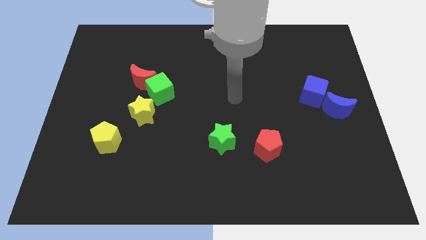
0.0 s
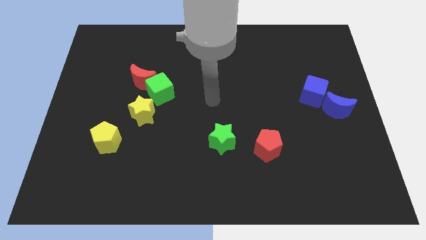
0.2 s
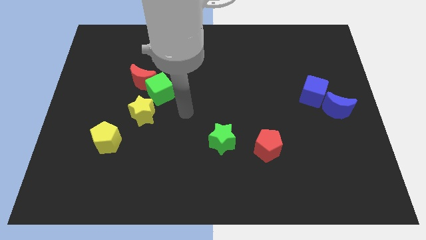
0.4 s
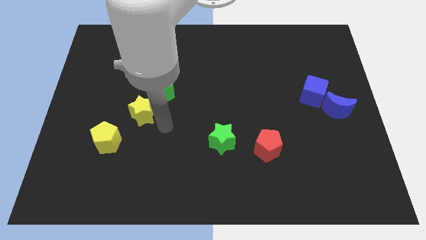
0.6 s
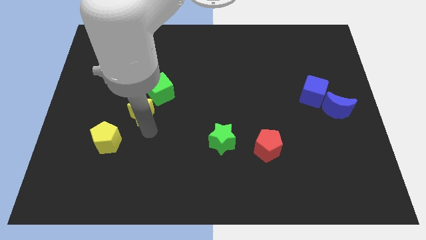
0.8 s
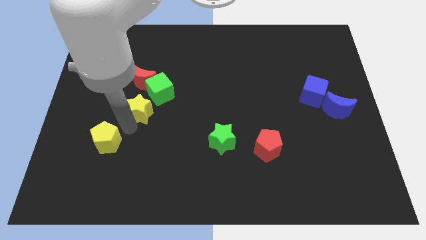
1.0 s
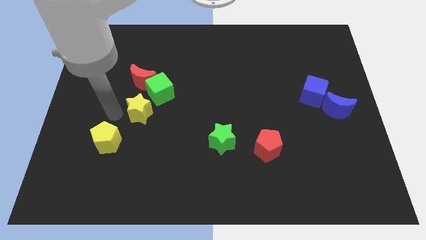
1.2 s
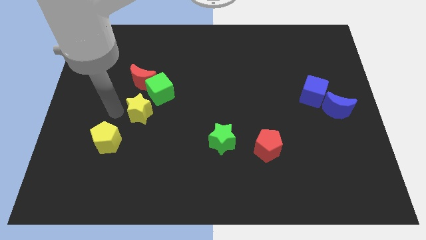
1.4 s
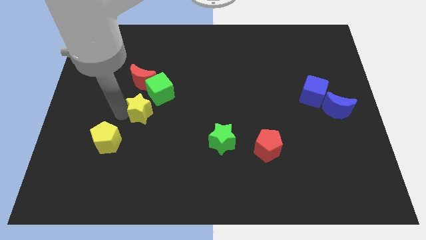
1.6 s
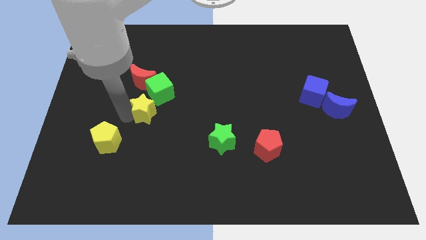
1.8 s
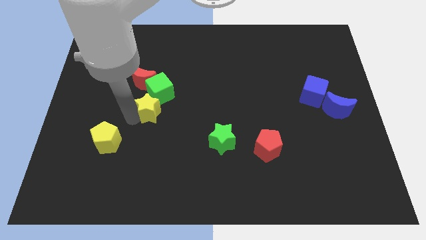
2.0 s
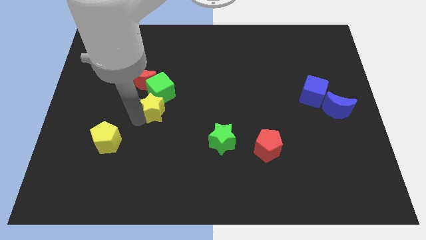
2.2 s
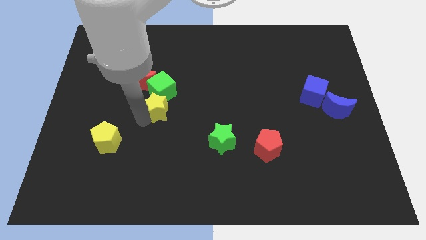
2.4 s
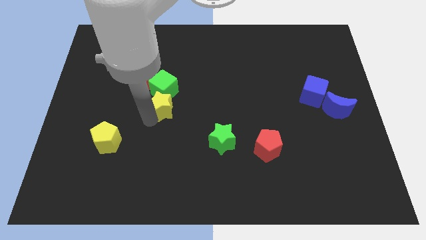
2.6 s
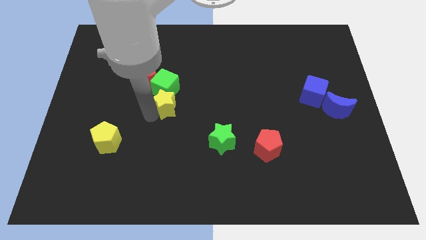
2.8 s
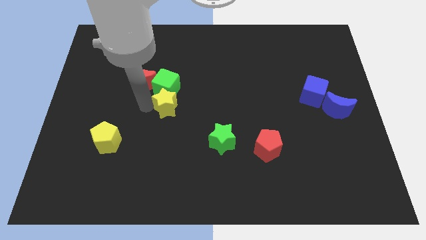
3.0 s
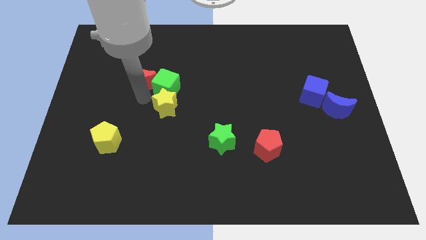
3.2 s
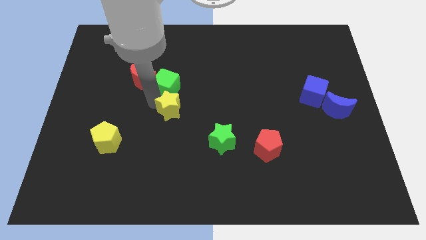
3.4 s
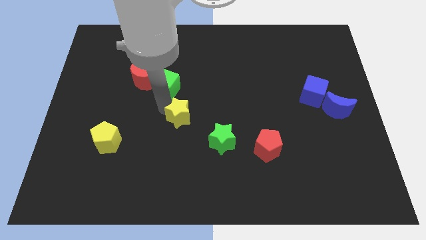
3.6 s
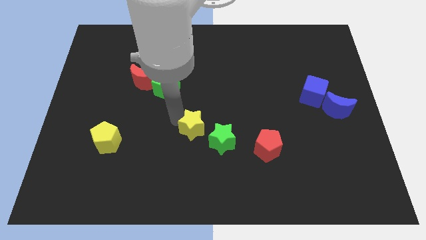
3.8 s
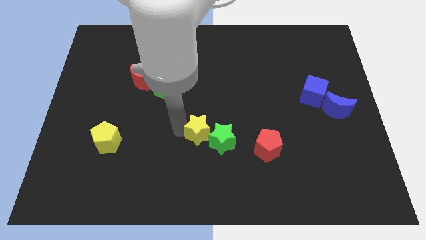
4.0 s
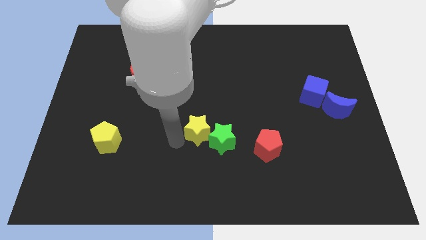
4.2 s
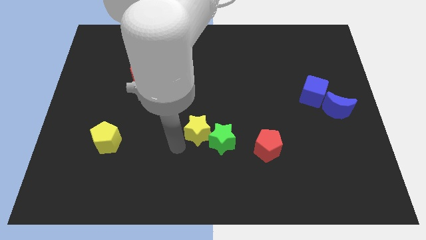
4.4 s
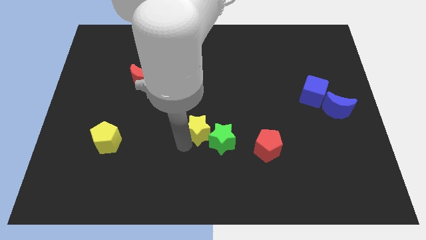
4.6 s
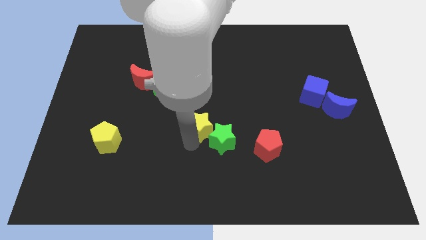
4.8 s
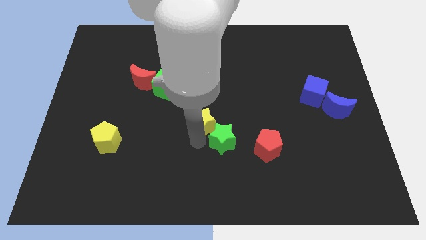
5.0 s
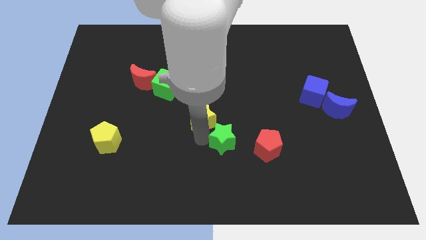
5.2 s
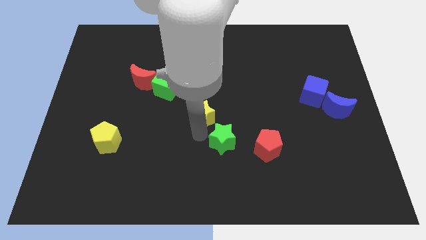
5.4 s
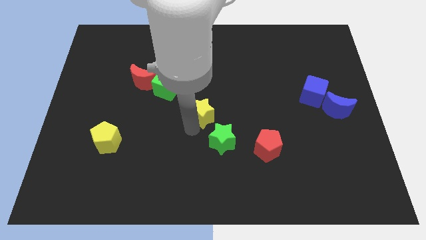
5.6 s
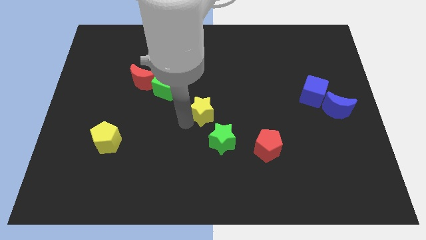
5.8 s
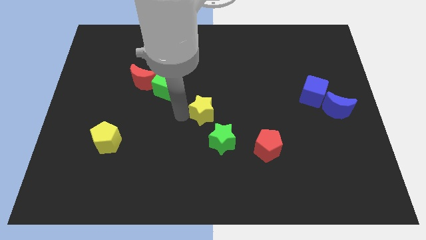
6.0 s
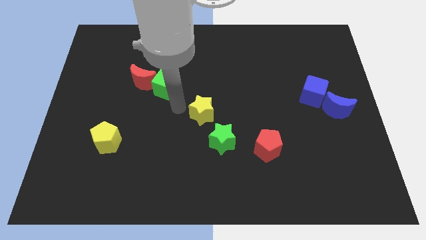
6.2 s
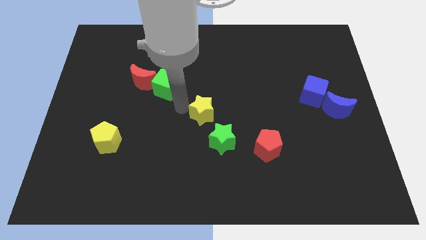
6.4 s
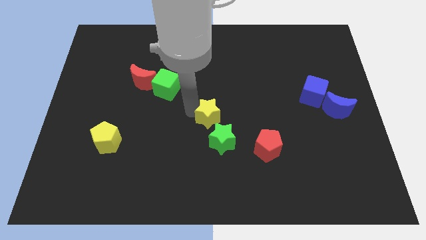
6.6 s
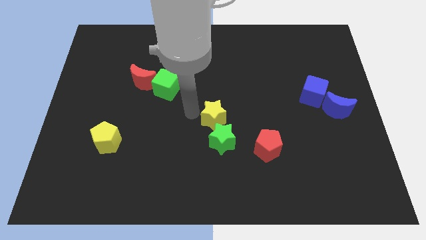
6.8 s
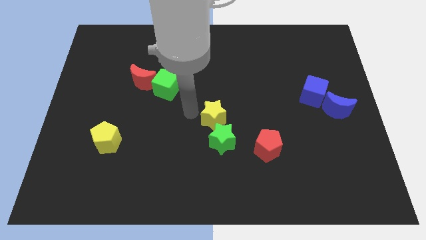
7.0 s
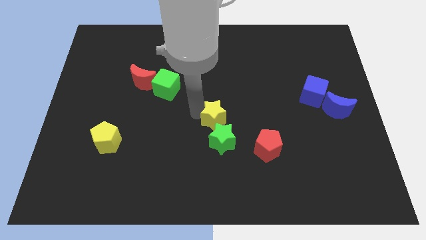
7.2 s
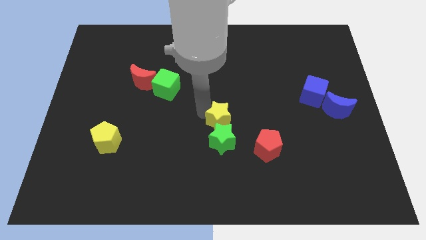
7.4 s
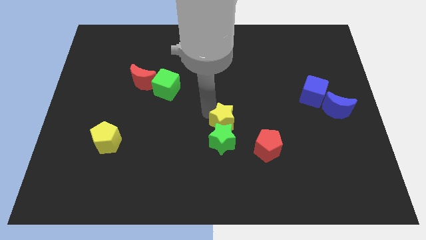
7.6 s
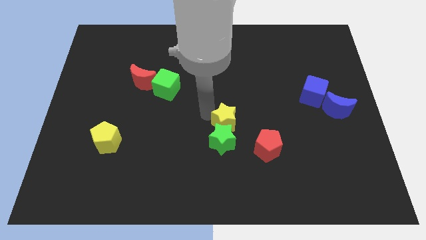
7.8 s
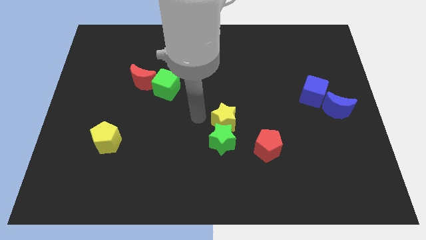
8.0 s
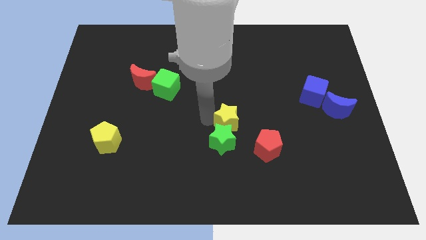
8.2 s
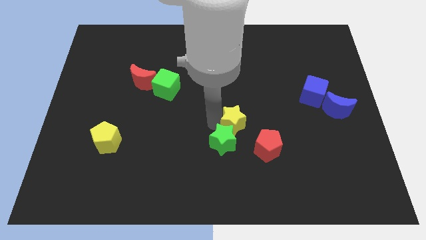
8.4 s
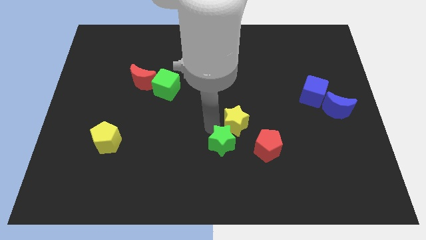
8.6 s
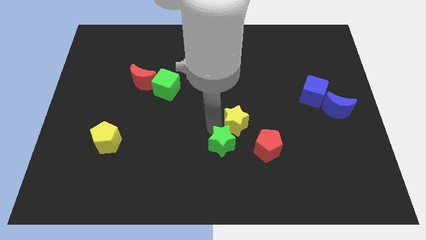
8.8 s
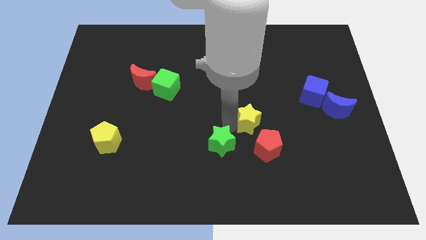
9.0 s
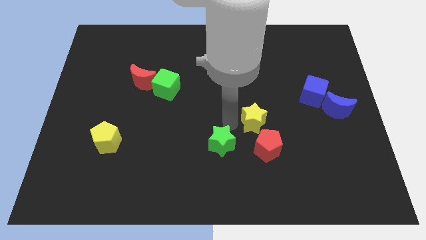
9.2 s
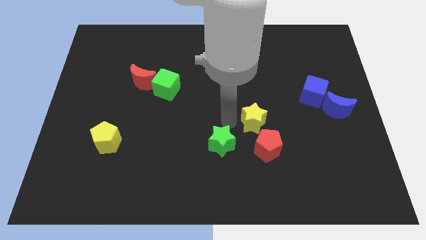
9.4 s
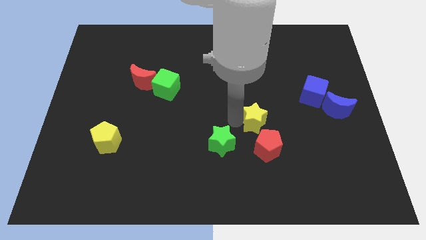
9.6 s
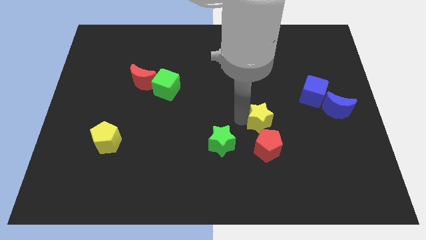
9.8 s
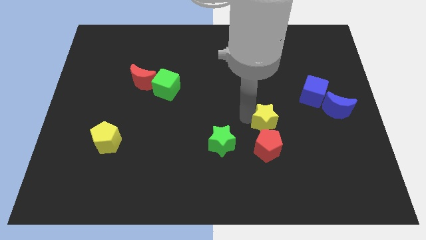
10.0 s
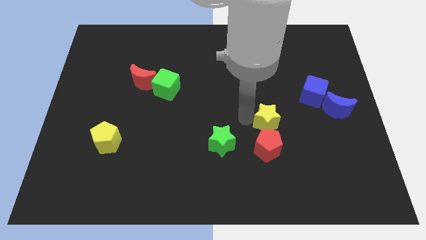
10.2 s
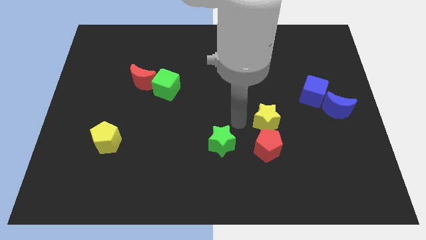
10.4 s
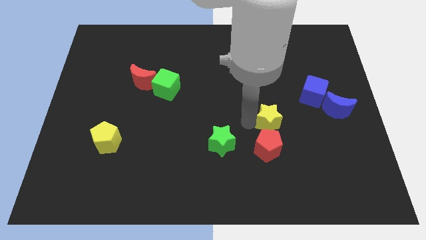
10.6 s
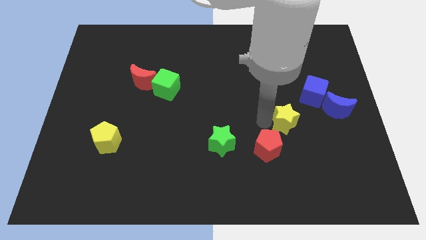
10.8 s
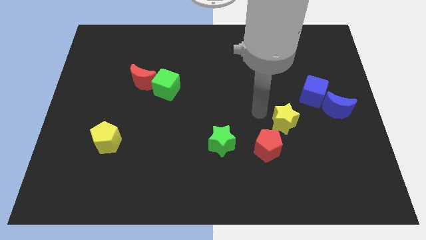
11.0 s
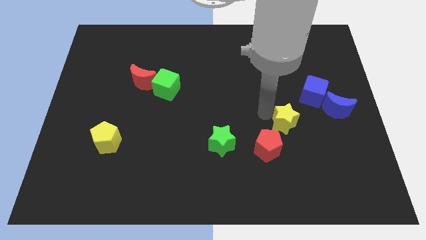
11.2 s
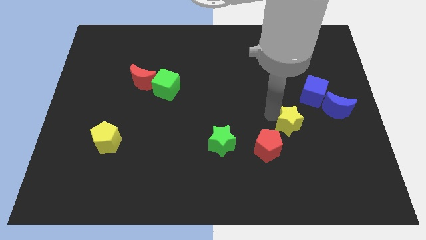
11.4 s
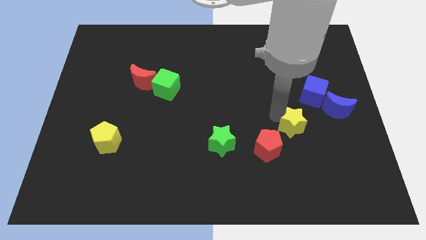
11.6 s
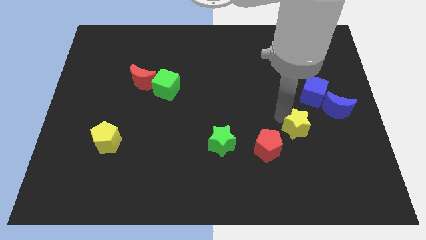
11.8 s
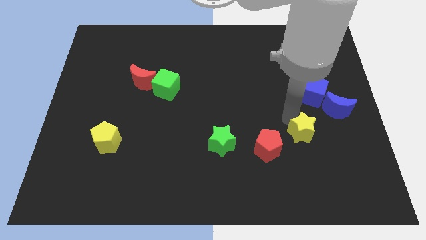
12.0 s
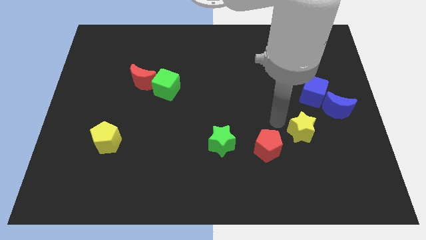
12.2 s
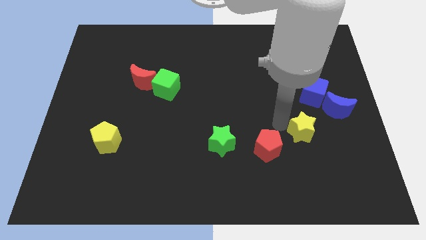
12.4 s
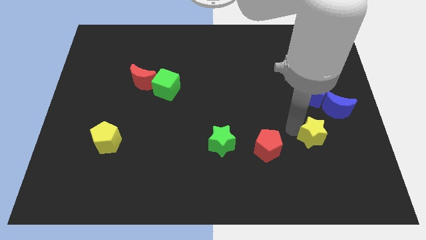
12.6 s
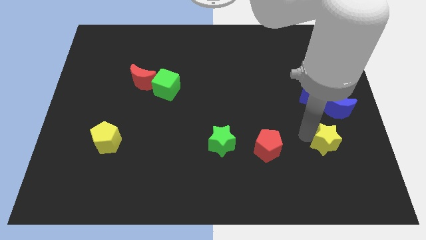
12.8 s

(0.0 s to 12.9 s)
move the yellow star below the blue moon
